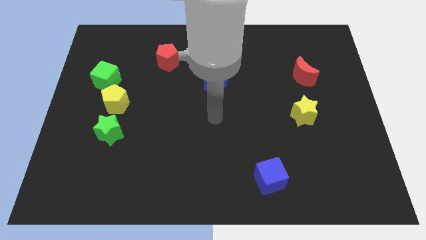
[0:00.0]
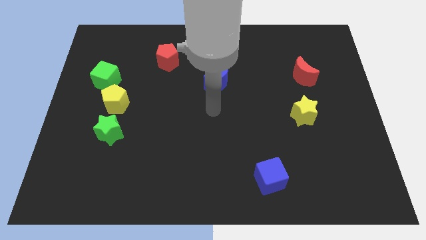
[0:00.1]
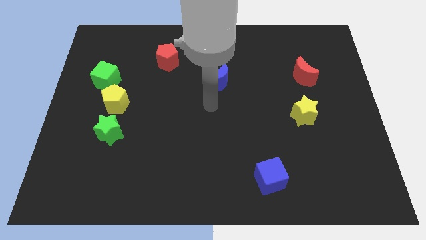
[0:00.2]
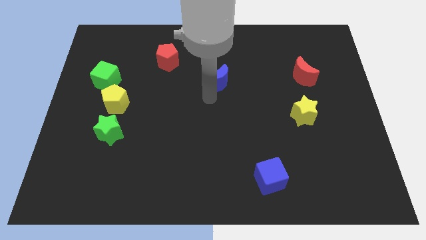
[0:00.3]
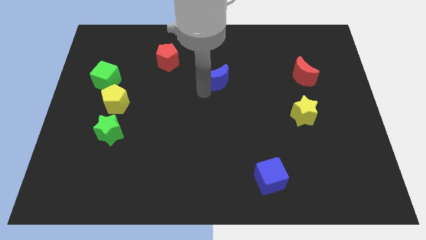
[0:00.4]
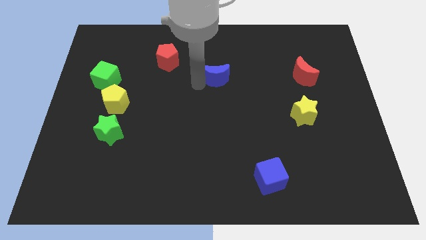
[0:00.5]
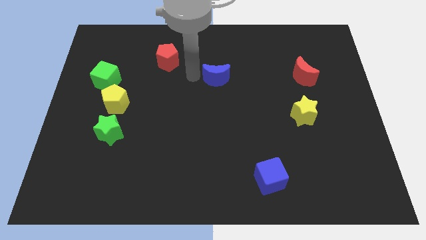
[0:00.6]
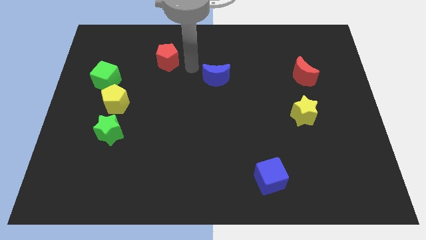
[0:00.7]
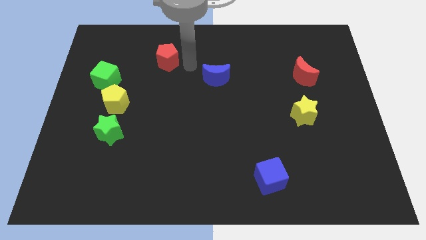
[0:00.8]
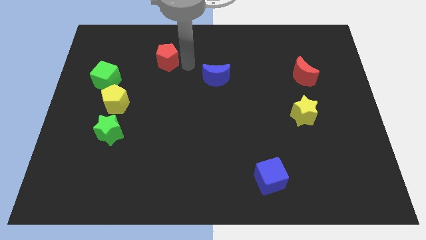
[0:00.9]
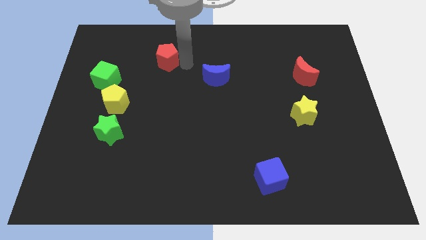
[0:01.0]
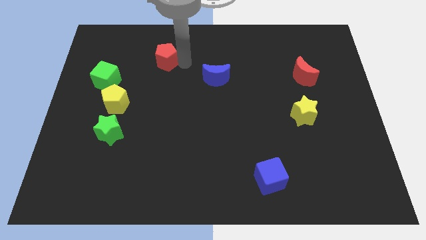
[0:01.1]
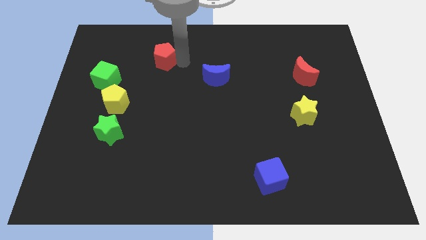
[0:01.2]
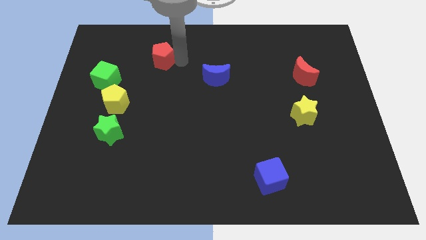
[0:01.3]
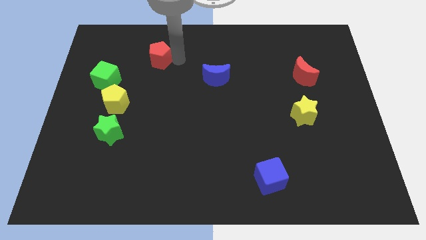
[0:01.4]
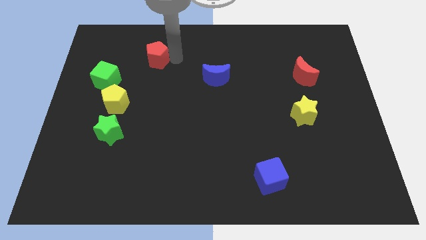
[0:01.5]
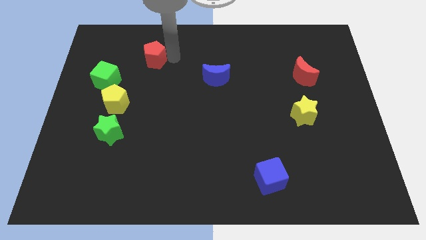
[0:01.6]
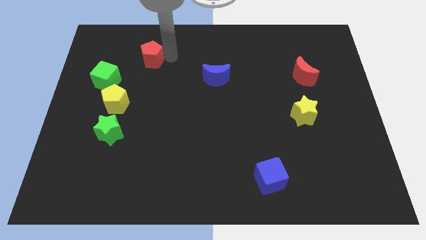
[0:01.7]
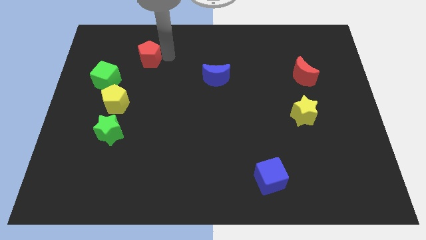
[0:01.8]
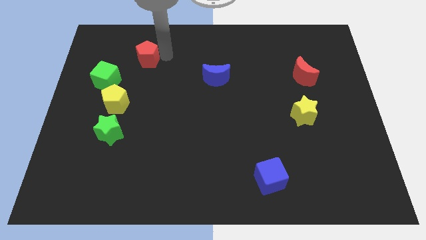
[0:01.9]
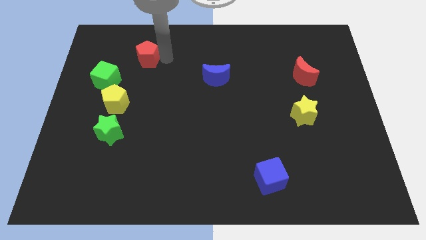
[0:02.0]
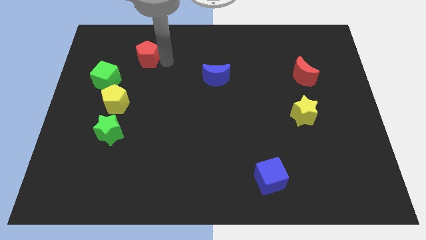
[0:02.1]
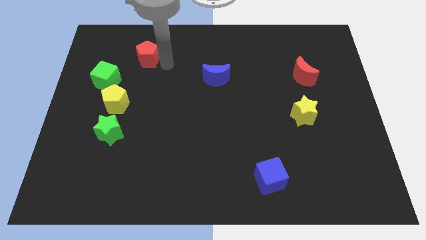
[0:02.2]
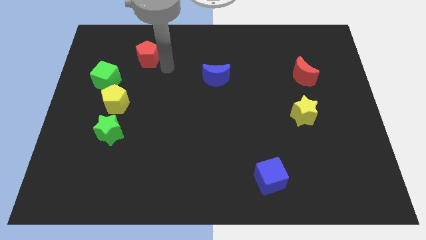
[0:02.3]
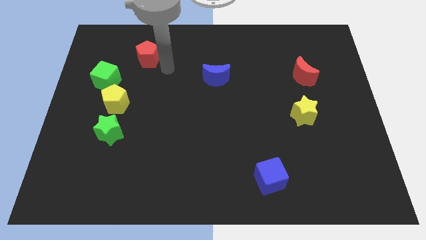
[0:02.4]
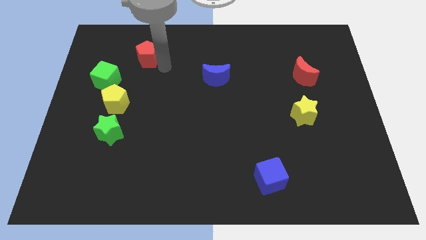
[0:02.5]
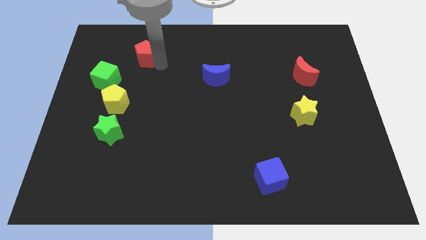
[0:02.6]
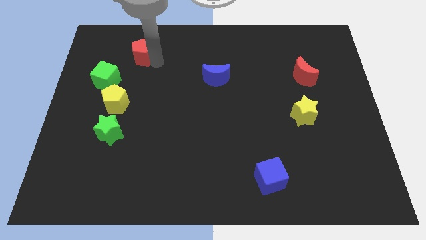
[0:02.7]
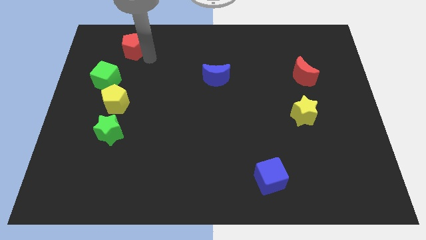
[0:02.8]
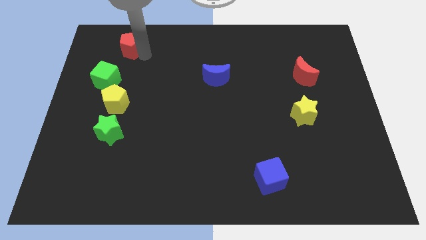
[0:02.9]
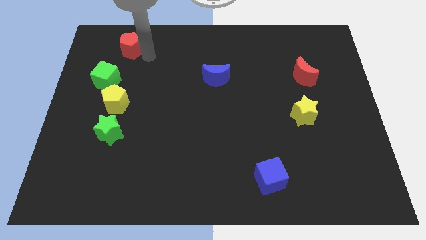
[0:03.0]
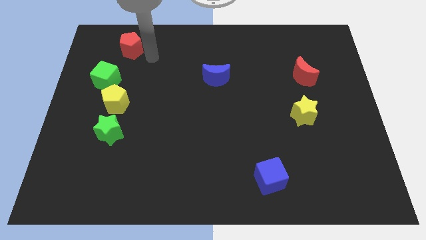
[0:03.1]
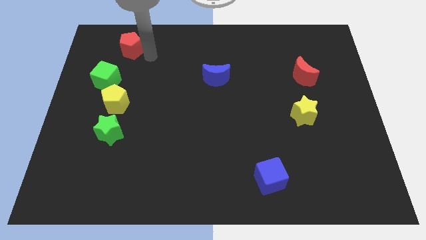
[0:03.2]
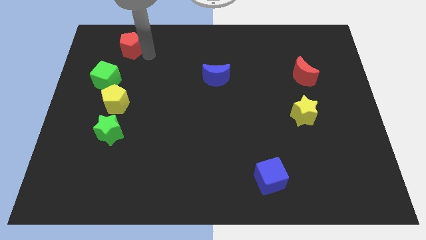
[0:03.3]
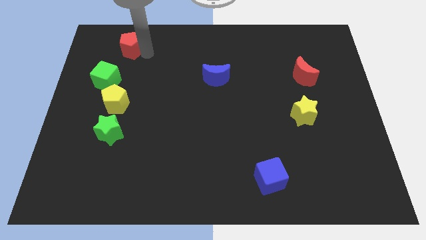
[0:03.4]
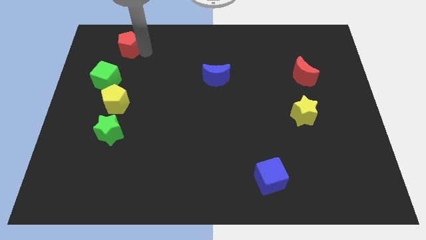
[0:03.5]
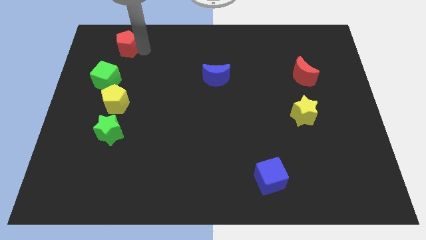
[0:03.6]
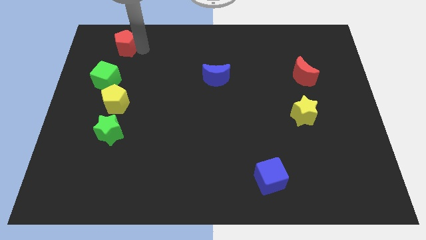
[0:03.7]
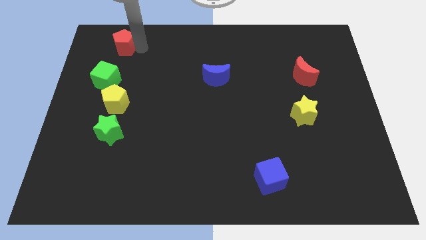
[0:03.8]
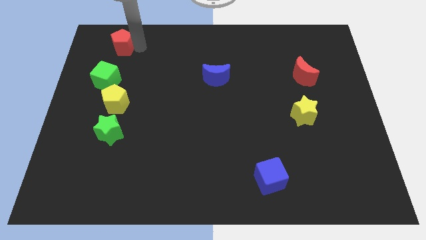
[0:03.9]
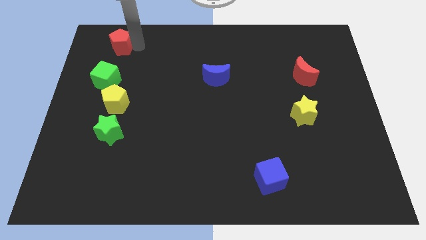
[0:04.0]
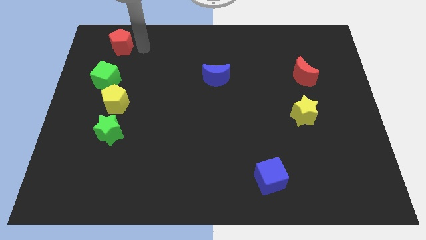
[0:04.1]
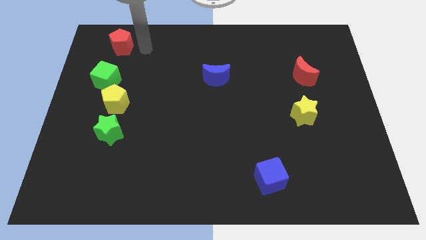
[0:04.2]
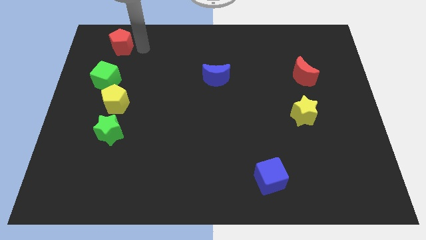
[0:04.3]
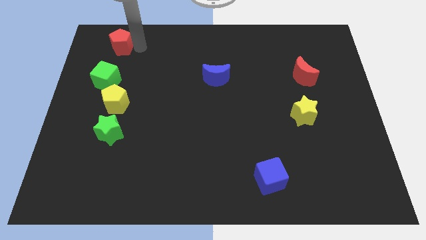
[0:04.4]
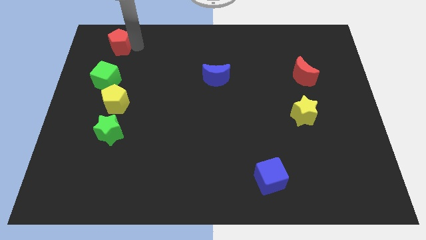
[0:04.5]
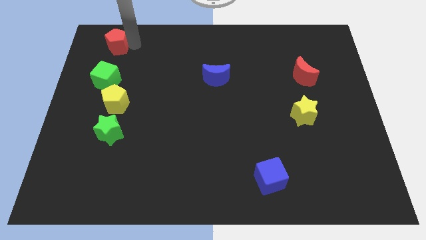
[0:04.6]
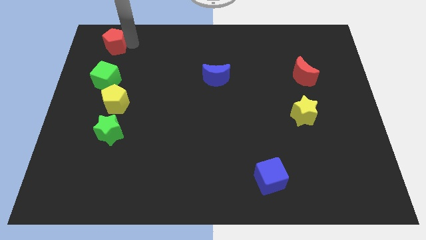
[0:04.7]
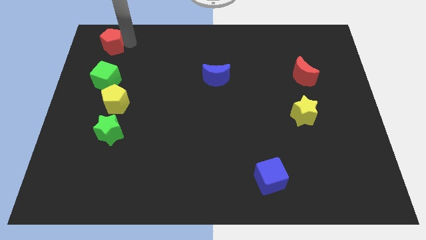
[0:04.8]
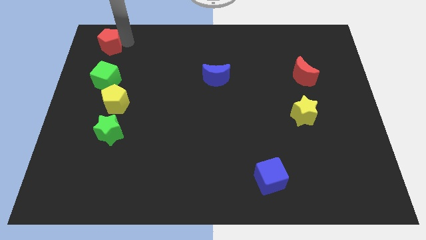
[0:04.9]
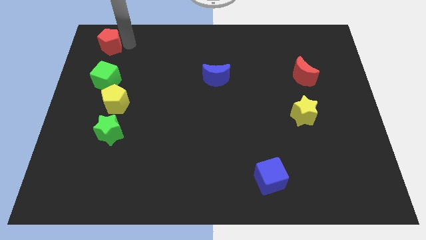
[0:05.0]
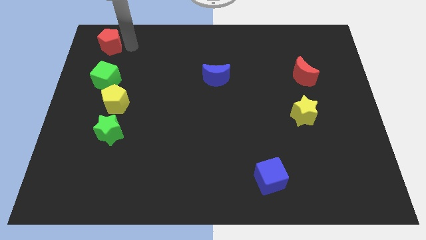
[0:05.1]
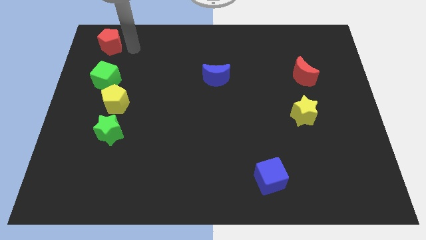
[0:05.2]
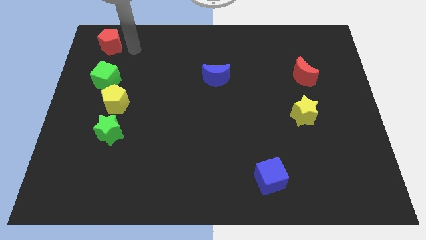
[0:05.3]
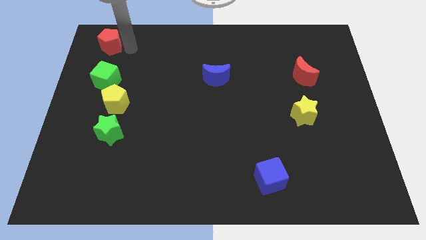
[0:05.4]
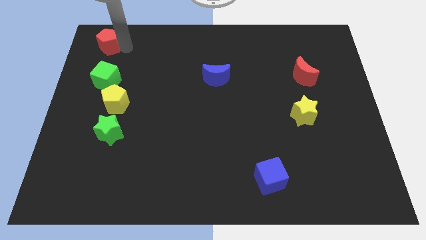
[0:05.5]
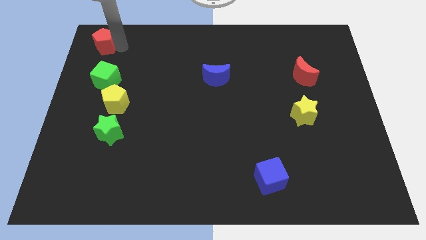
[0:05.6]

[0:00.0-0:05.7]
push the red pentagon to the top left of the board

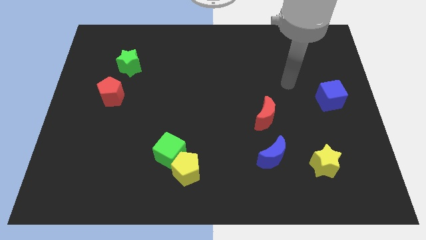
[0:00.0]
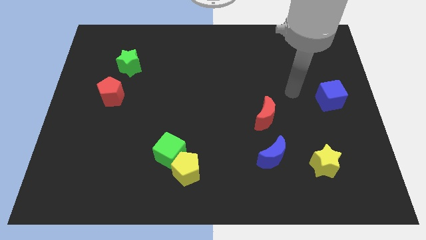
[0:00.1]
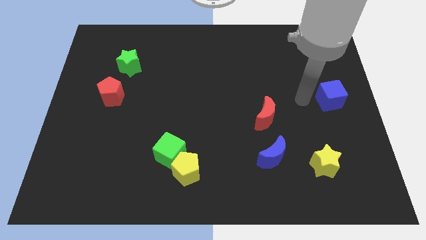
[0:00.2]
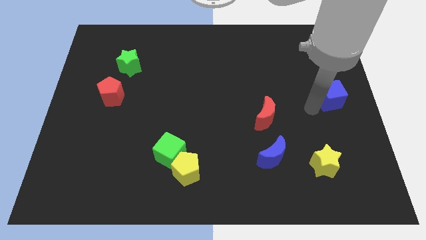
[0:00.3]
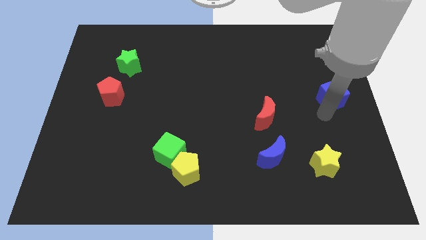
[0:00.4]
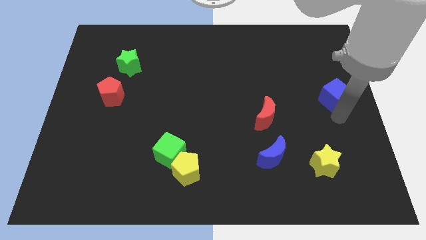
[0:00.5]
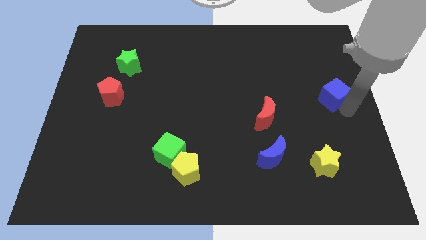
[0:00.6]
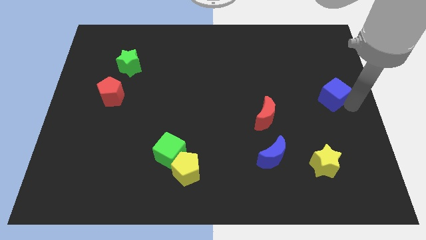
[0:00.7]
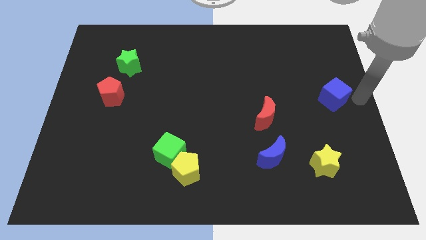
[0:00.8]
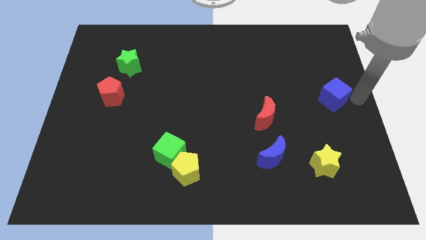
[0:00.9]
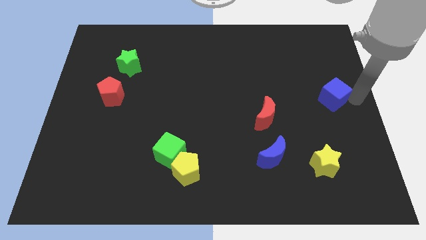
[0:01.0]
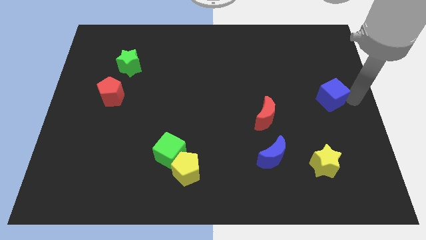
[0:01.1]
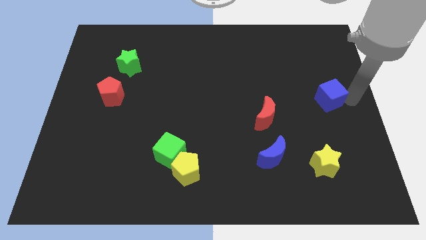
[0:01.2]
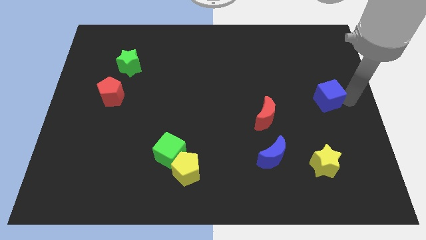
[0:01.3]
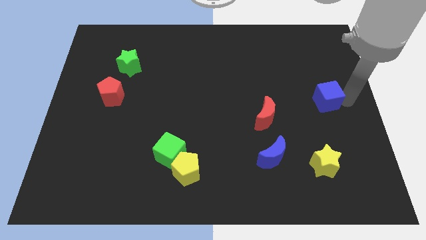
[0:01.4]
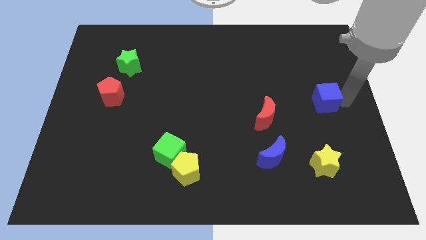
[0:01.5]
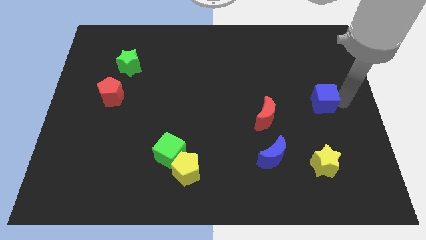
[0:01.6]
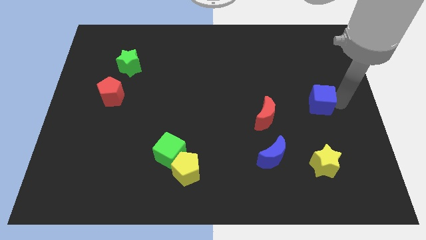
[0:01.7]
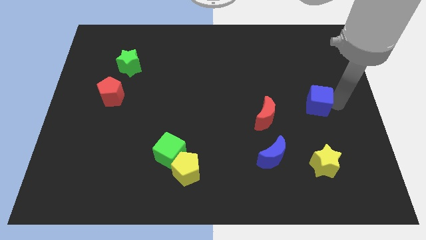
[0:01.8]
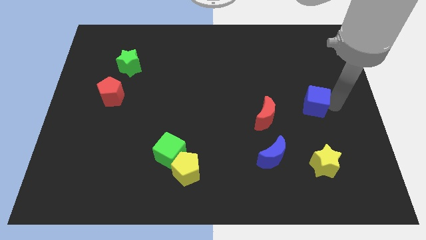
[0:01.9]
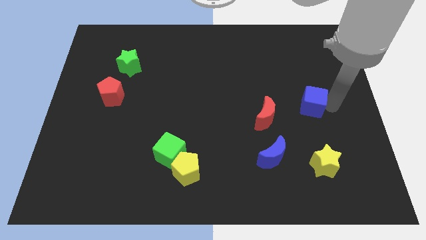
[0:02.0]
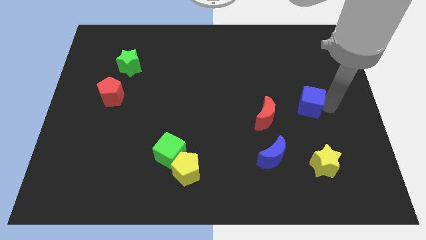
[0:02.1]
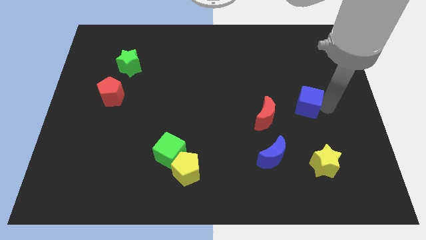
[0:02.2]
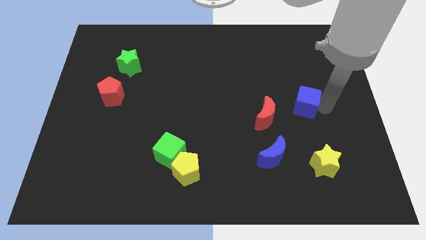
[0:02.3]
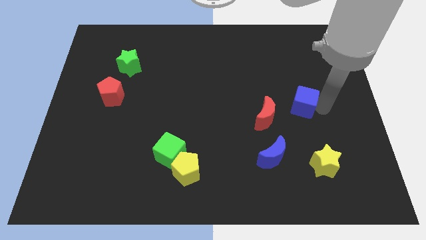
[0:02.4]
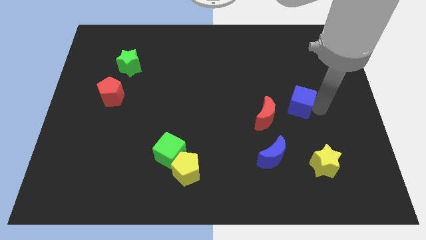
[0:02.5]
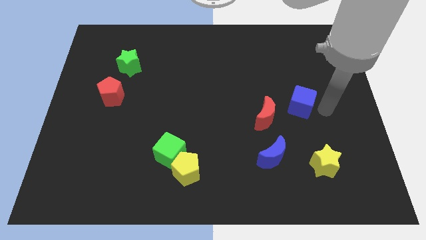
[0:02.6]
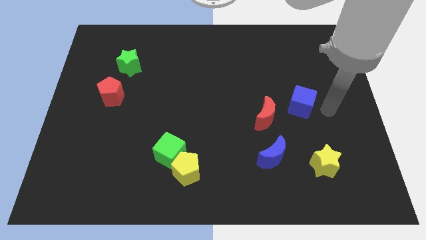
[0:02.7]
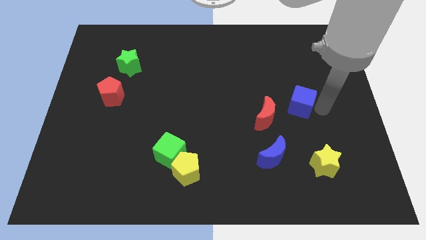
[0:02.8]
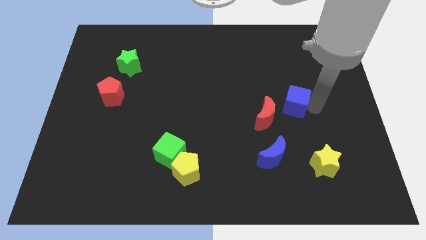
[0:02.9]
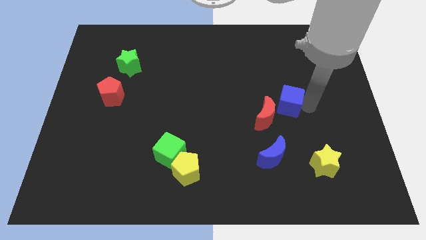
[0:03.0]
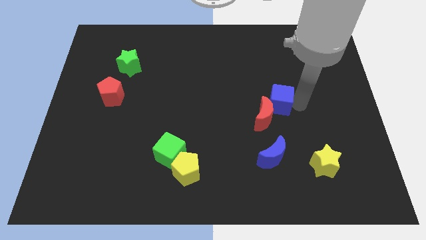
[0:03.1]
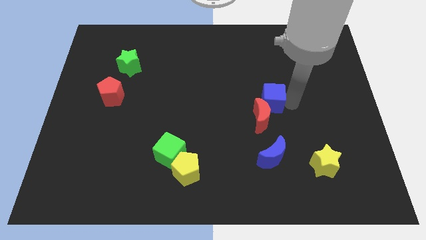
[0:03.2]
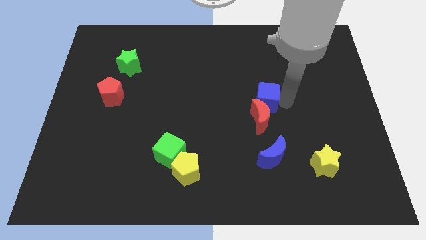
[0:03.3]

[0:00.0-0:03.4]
slide the blue cube to the middle
